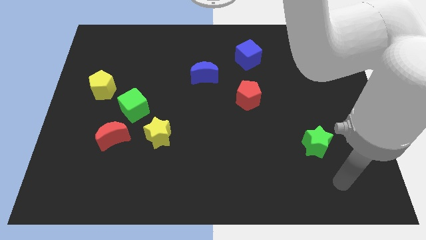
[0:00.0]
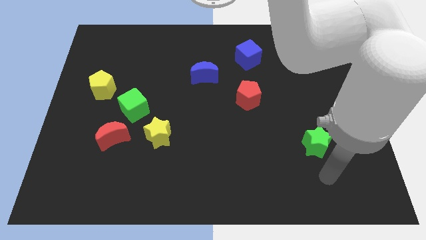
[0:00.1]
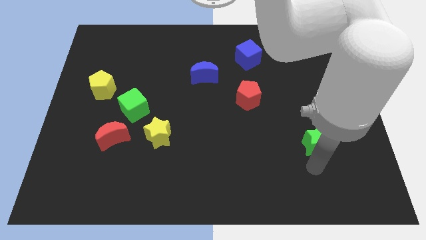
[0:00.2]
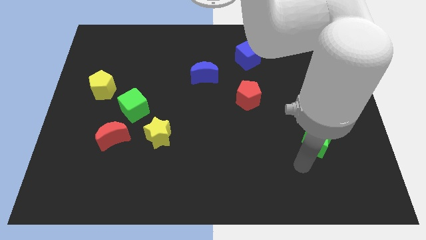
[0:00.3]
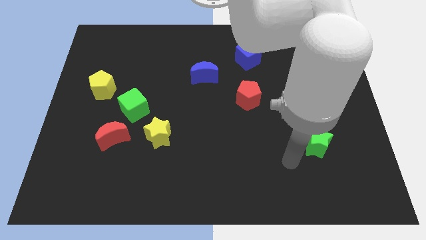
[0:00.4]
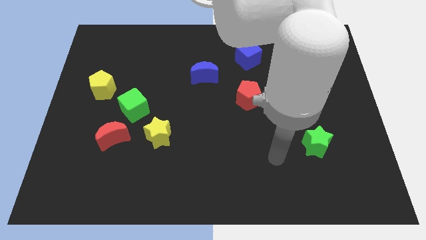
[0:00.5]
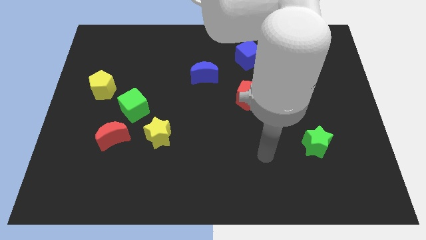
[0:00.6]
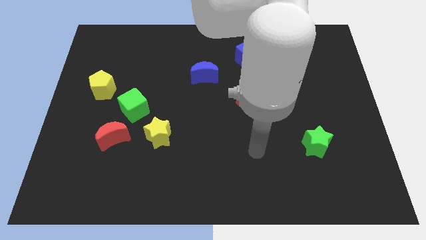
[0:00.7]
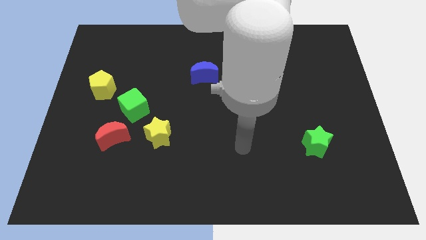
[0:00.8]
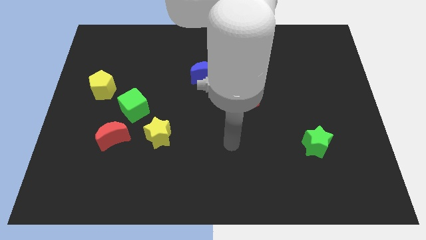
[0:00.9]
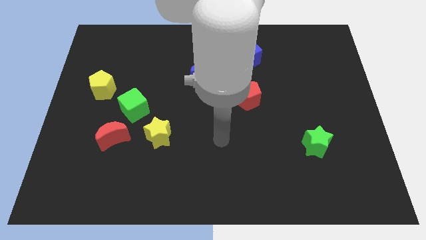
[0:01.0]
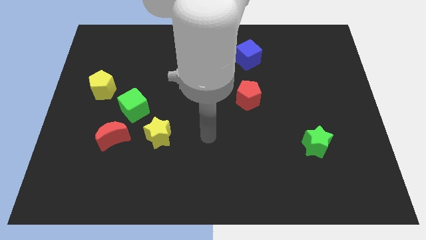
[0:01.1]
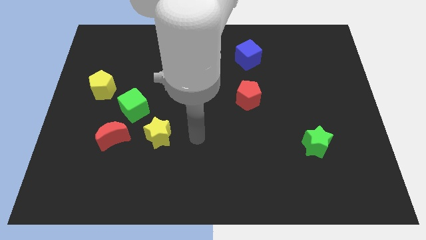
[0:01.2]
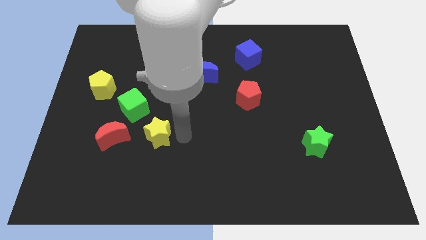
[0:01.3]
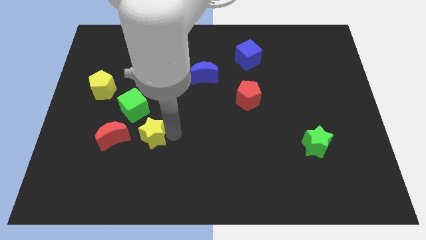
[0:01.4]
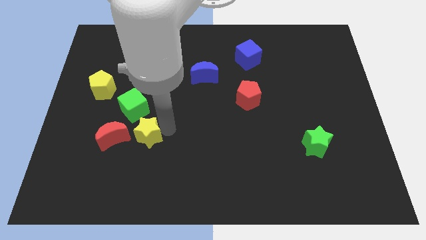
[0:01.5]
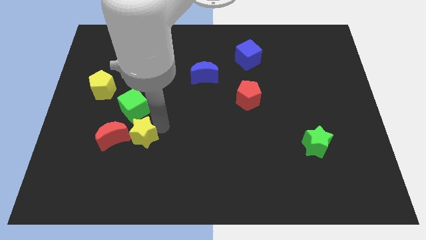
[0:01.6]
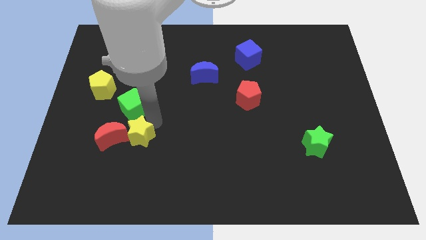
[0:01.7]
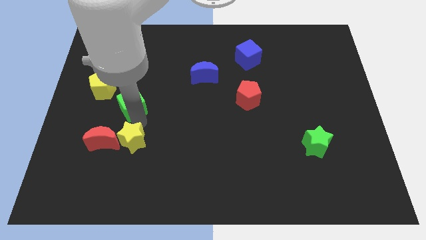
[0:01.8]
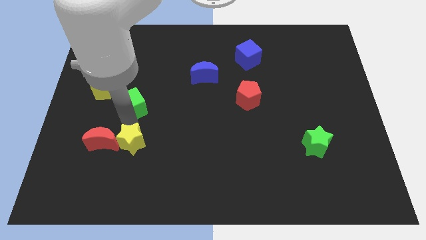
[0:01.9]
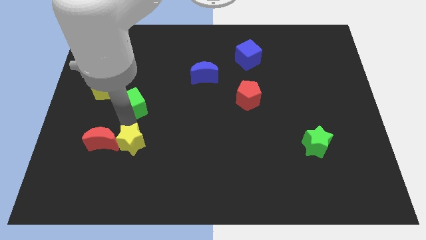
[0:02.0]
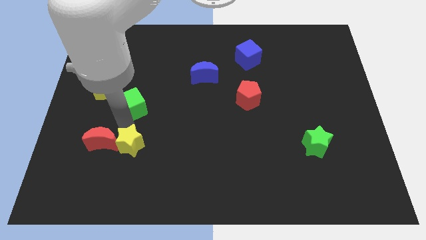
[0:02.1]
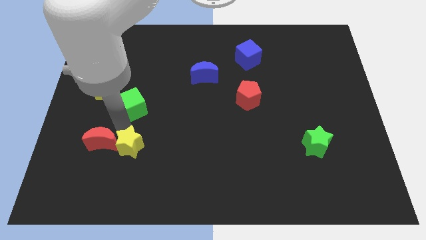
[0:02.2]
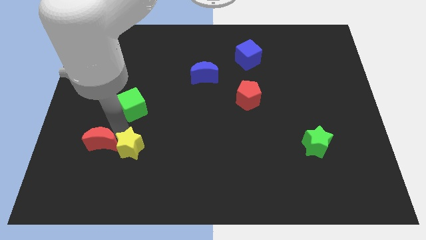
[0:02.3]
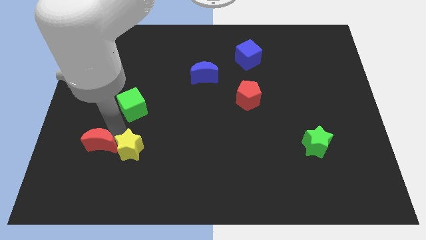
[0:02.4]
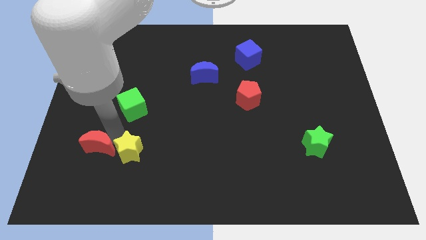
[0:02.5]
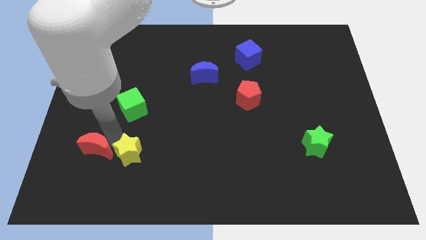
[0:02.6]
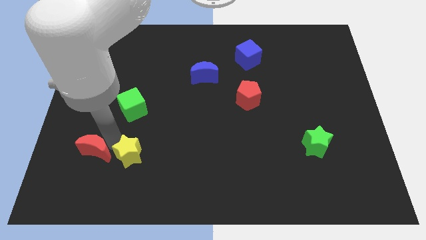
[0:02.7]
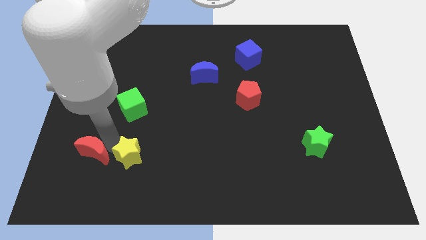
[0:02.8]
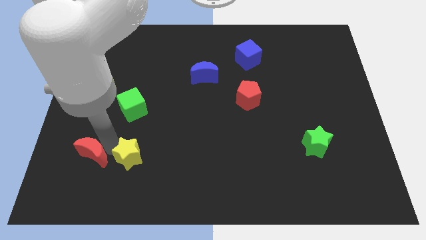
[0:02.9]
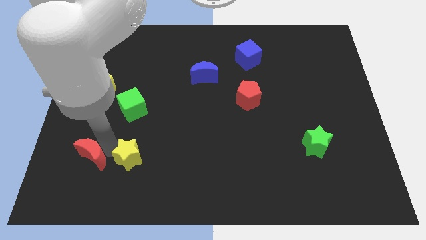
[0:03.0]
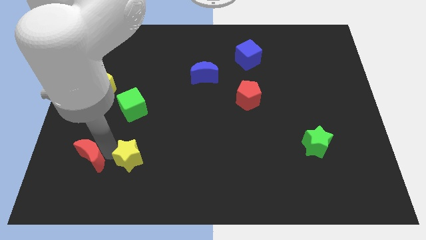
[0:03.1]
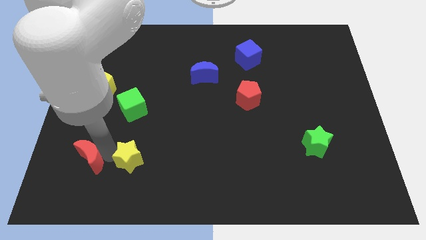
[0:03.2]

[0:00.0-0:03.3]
separate the red moon from the green cube and yellow star

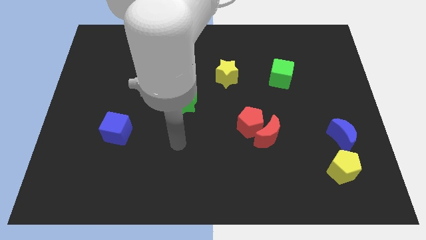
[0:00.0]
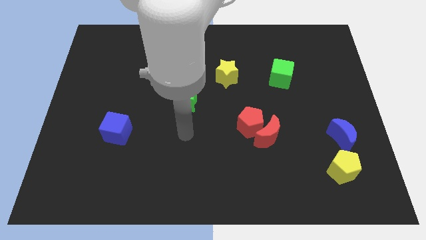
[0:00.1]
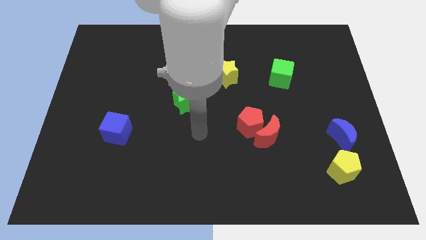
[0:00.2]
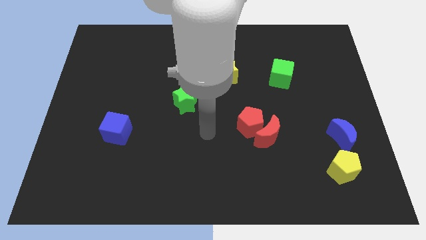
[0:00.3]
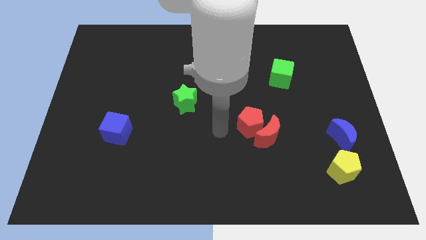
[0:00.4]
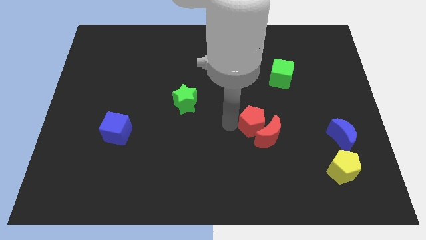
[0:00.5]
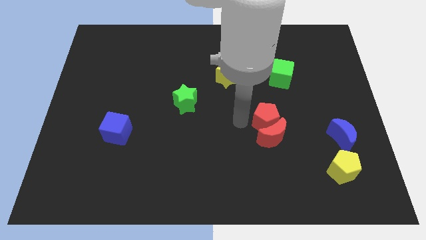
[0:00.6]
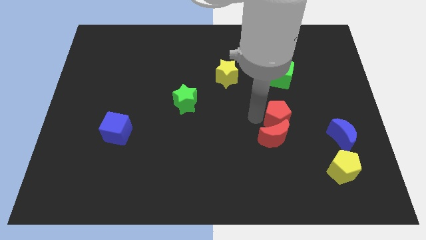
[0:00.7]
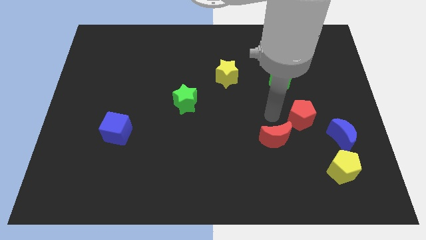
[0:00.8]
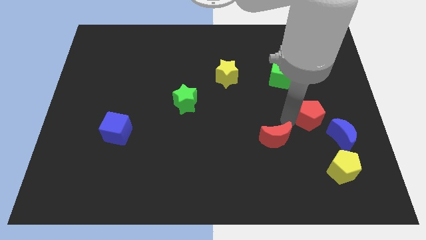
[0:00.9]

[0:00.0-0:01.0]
pull the red moon apart from the red pentagon

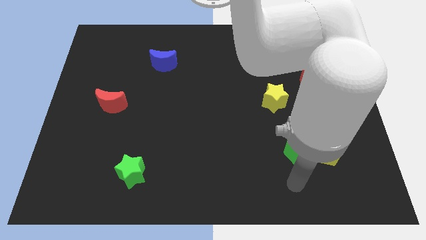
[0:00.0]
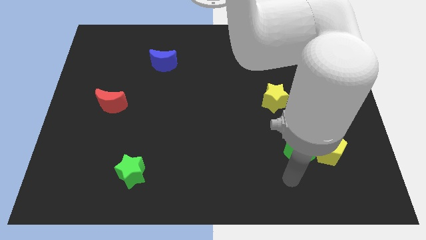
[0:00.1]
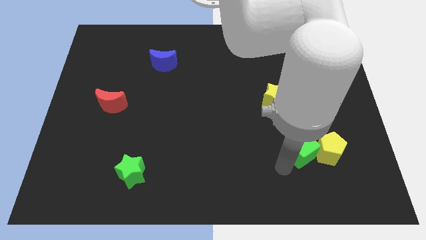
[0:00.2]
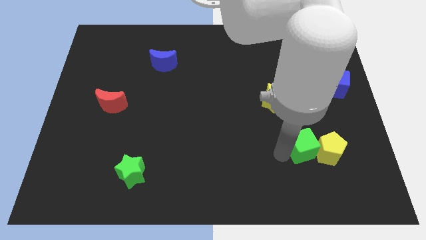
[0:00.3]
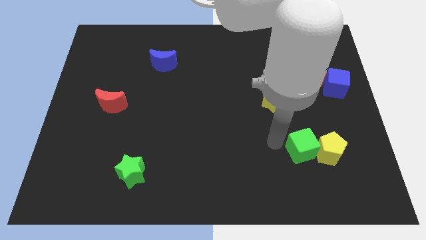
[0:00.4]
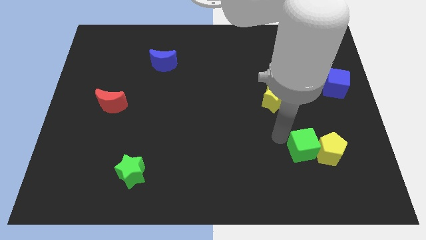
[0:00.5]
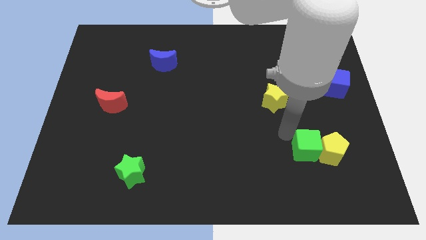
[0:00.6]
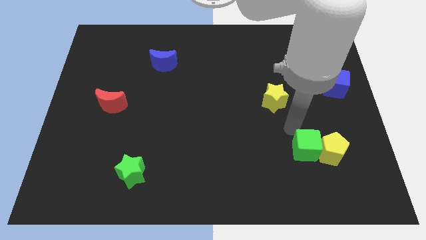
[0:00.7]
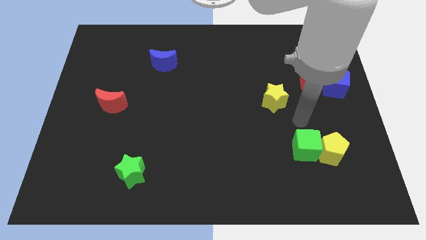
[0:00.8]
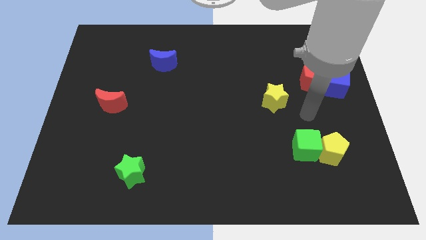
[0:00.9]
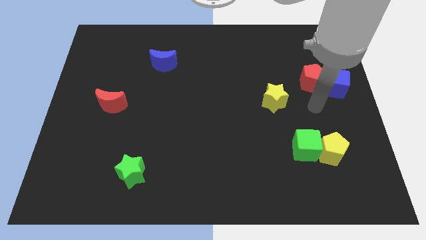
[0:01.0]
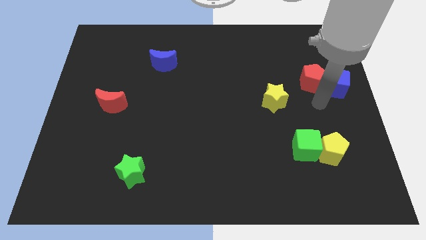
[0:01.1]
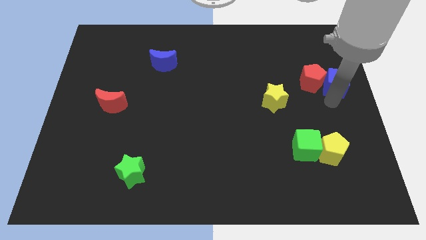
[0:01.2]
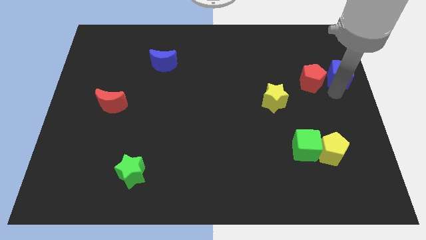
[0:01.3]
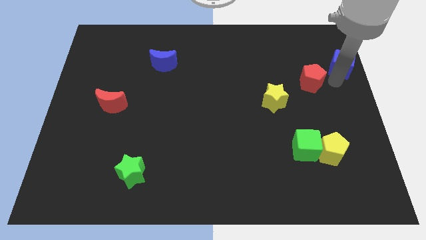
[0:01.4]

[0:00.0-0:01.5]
separate the red pentagon from the blue cube

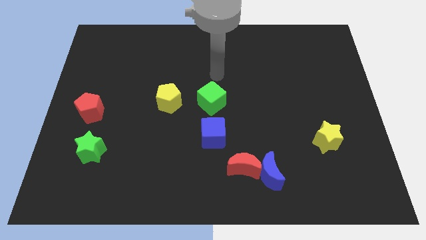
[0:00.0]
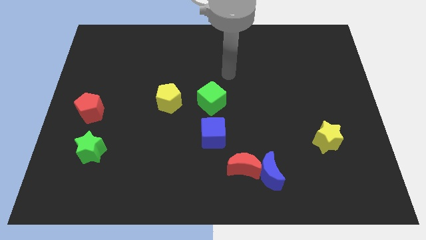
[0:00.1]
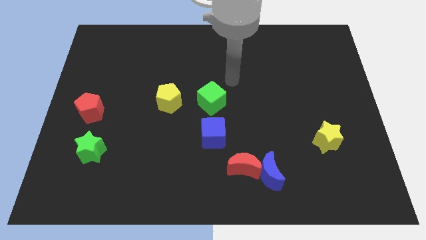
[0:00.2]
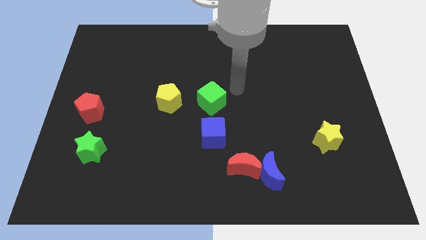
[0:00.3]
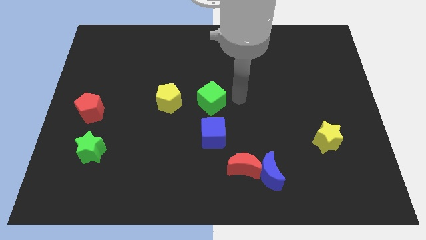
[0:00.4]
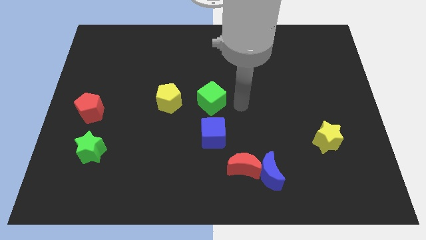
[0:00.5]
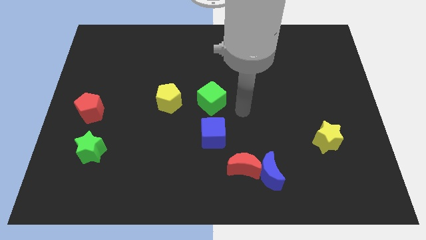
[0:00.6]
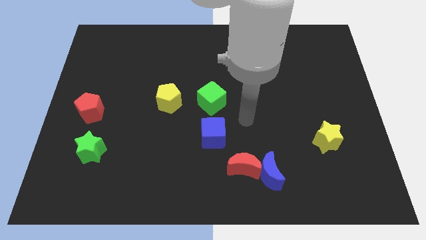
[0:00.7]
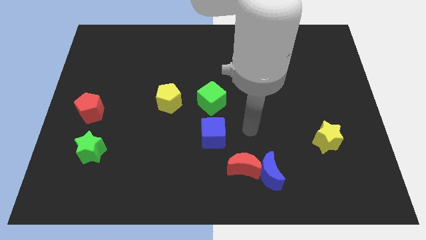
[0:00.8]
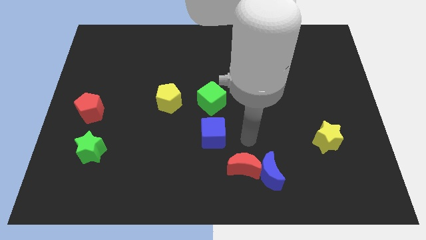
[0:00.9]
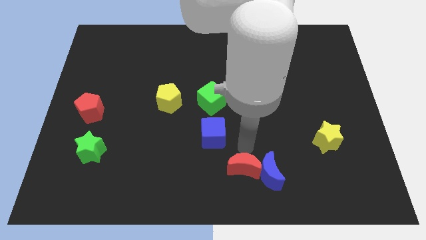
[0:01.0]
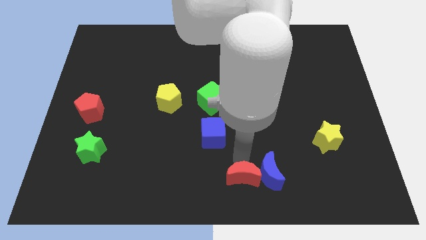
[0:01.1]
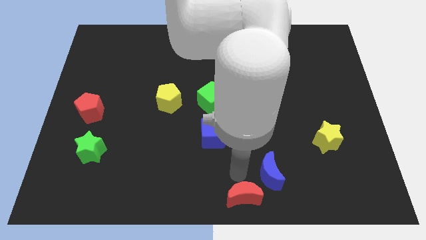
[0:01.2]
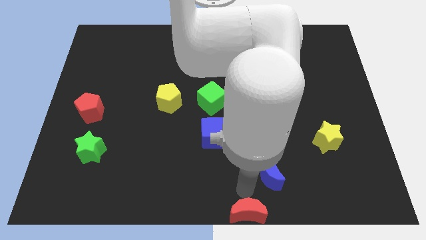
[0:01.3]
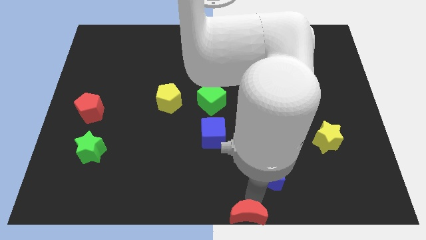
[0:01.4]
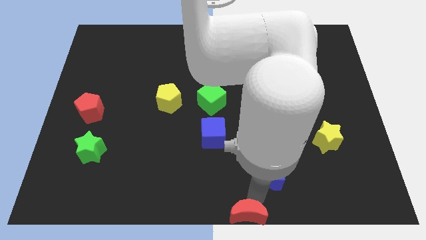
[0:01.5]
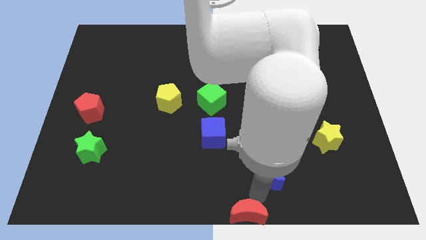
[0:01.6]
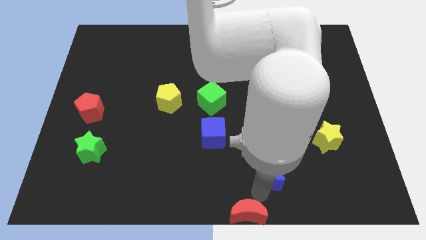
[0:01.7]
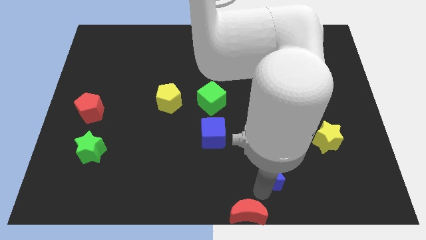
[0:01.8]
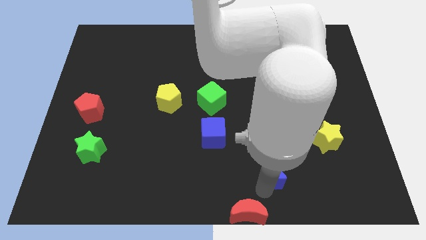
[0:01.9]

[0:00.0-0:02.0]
pull the blue moon apart from the red moon

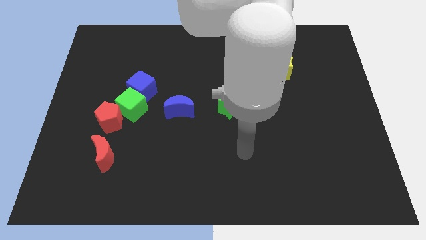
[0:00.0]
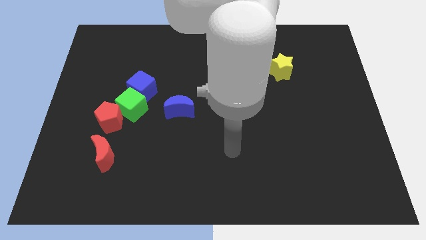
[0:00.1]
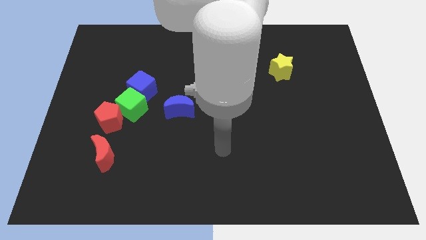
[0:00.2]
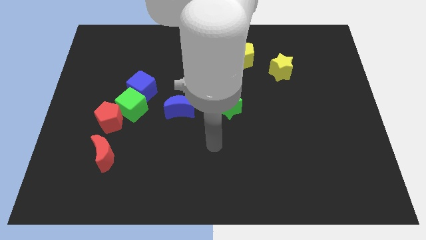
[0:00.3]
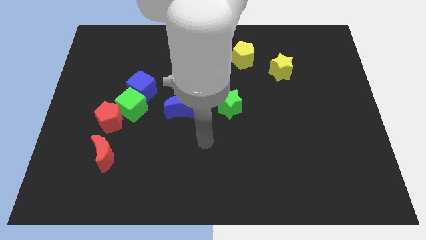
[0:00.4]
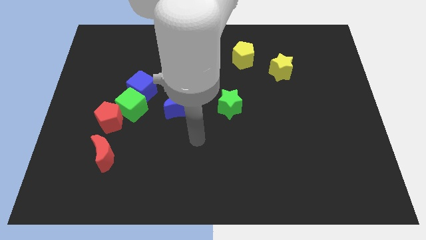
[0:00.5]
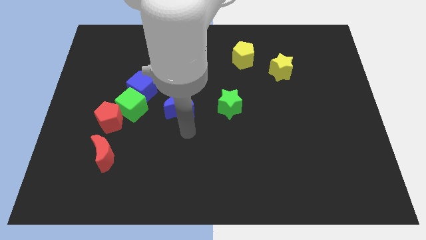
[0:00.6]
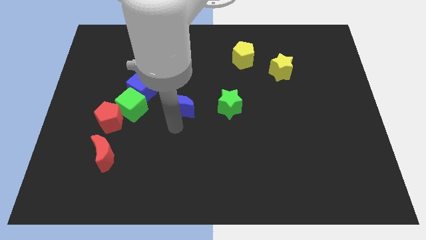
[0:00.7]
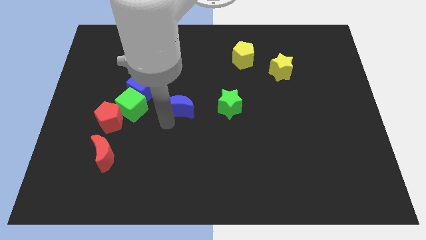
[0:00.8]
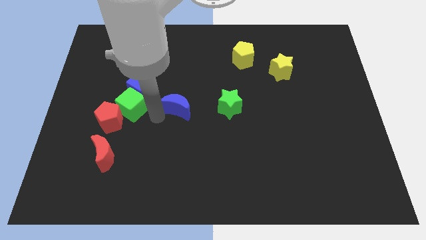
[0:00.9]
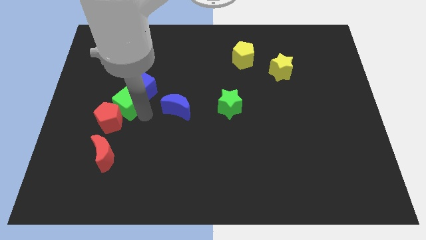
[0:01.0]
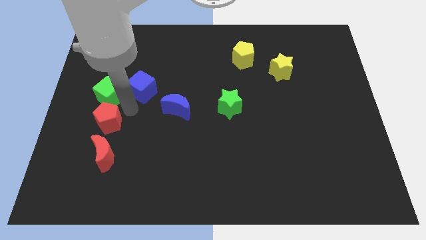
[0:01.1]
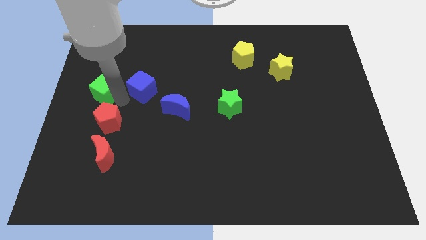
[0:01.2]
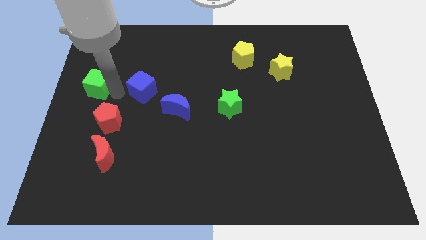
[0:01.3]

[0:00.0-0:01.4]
move the blue cube away from the green cube
